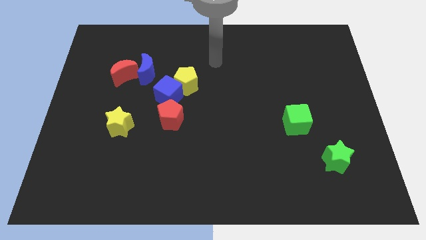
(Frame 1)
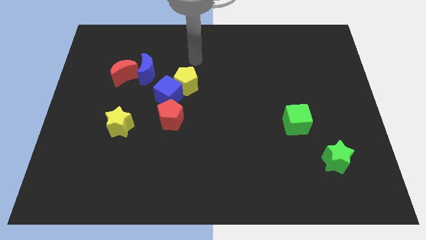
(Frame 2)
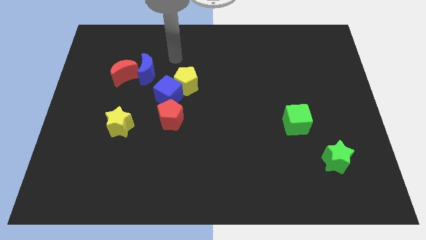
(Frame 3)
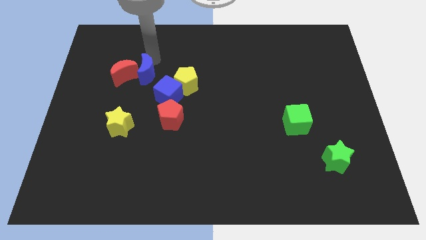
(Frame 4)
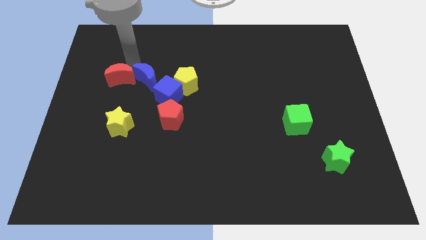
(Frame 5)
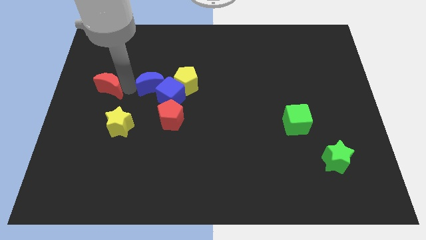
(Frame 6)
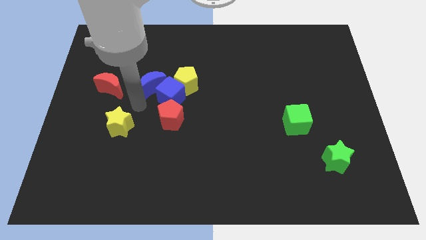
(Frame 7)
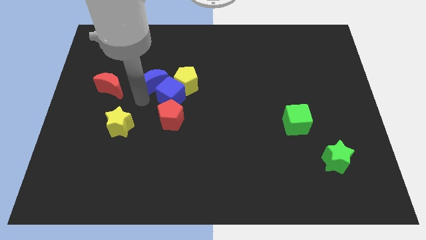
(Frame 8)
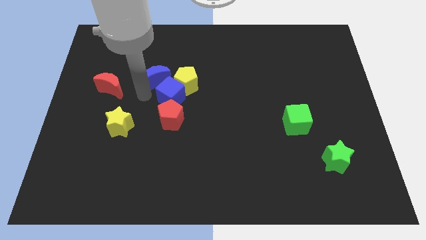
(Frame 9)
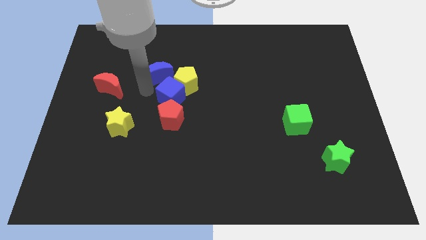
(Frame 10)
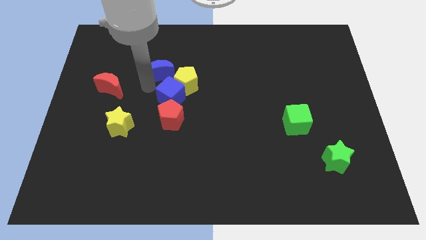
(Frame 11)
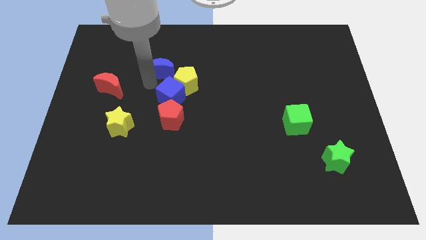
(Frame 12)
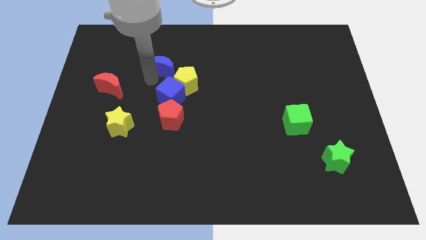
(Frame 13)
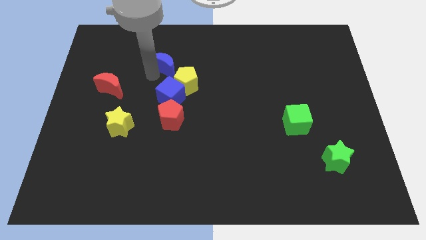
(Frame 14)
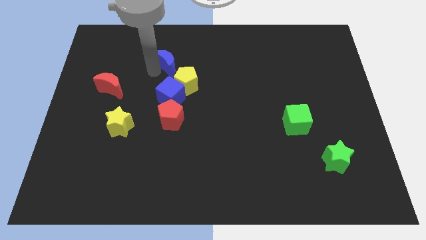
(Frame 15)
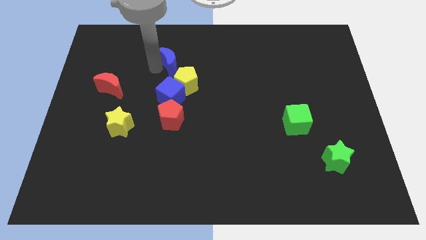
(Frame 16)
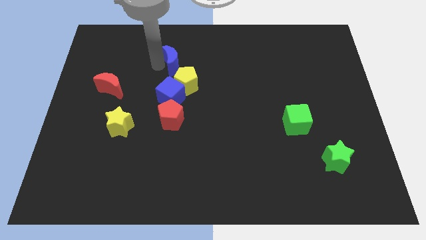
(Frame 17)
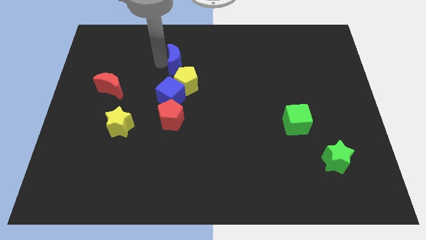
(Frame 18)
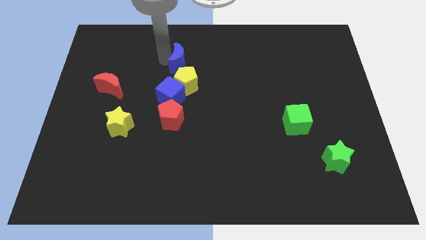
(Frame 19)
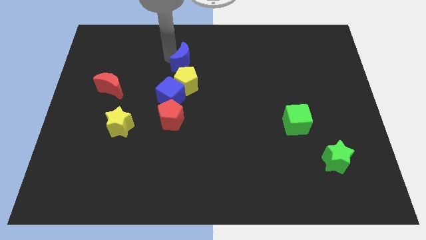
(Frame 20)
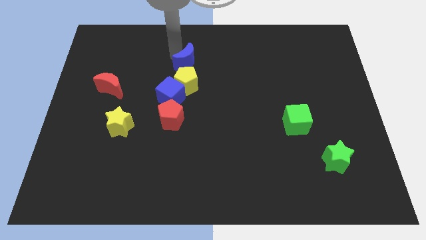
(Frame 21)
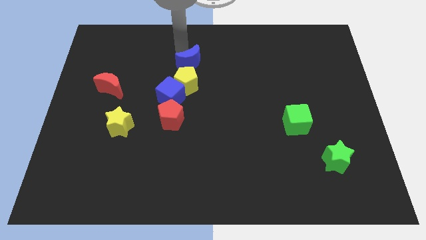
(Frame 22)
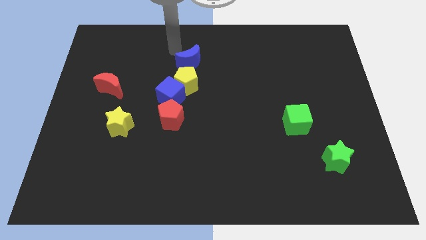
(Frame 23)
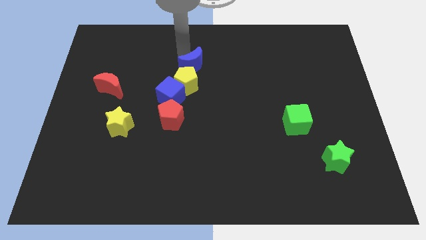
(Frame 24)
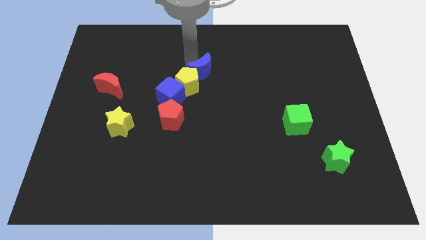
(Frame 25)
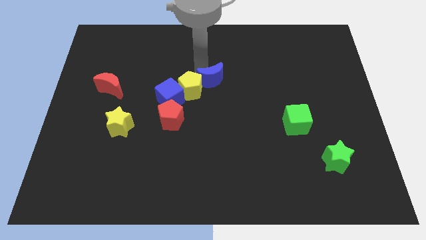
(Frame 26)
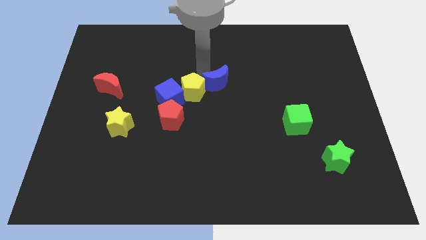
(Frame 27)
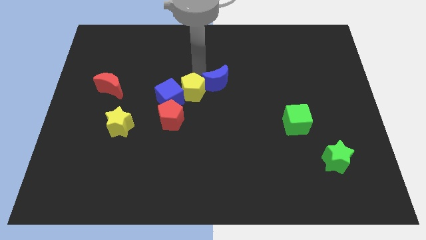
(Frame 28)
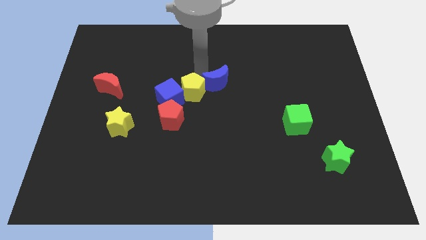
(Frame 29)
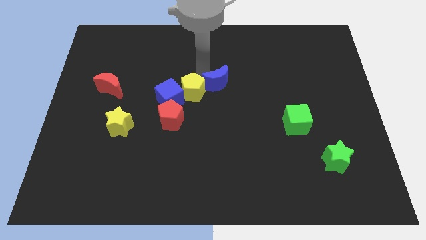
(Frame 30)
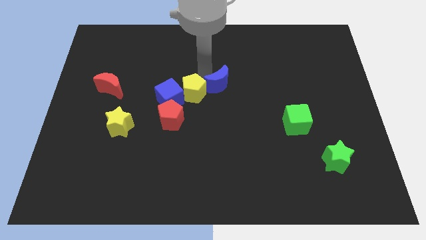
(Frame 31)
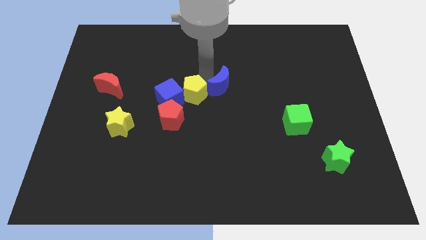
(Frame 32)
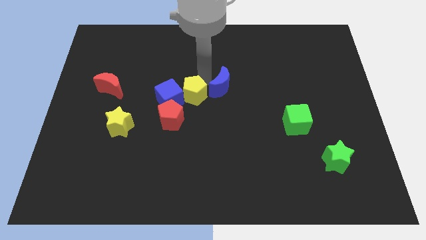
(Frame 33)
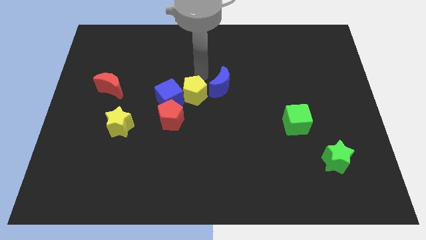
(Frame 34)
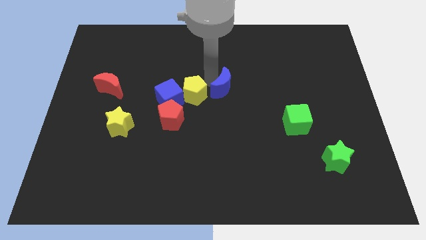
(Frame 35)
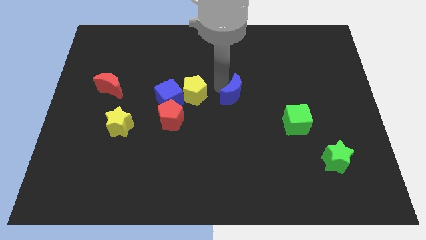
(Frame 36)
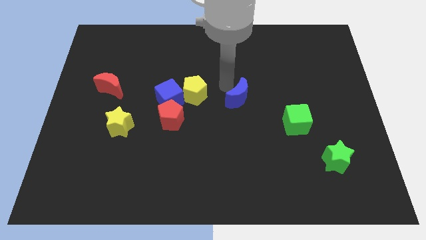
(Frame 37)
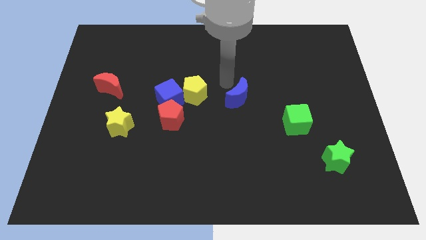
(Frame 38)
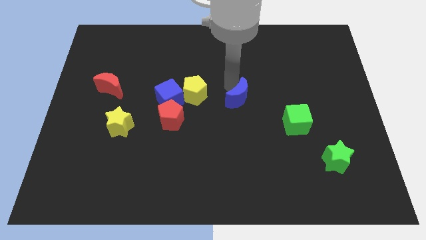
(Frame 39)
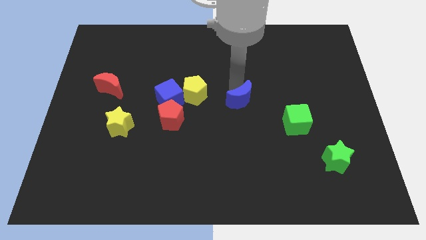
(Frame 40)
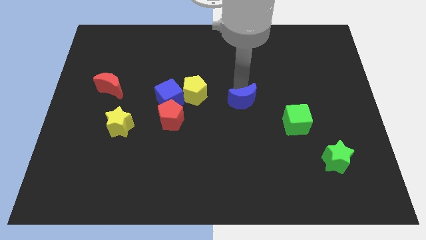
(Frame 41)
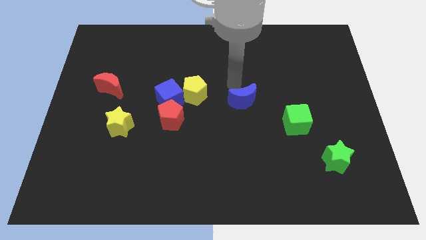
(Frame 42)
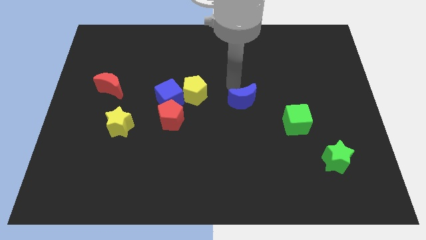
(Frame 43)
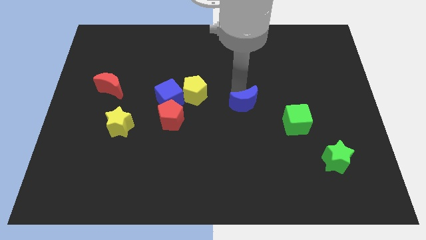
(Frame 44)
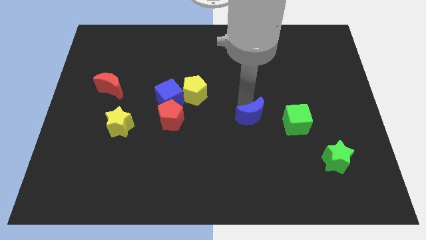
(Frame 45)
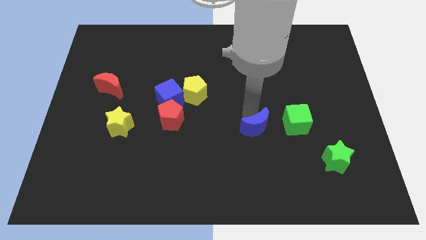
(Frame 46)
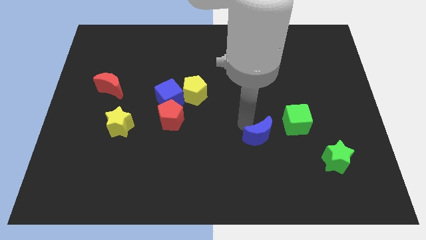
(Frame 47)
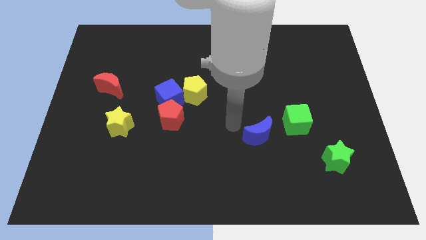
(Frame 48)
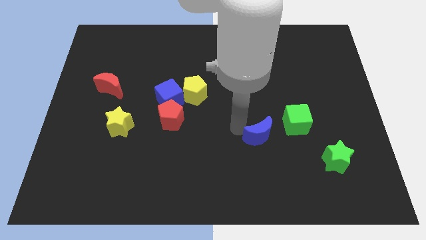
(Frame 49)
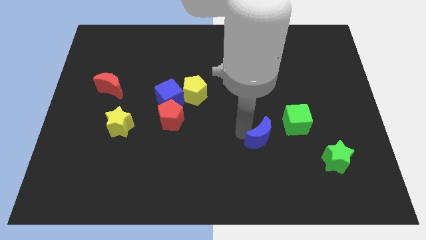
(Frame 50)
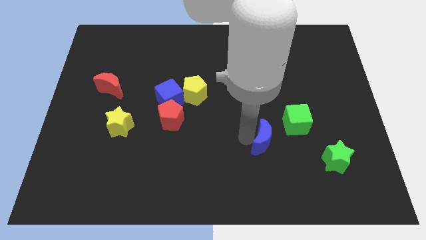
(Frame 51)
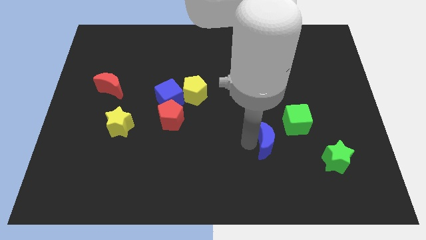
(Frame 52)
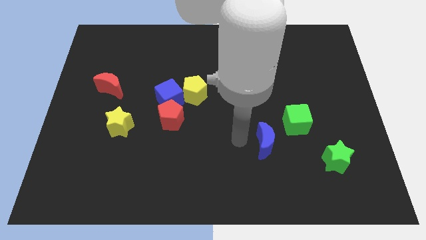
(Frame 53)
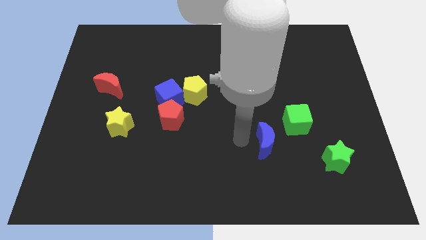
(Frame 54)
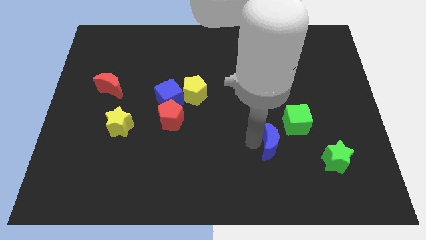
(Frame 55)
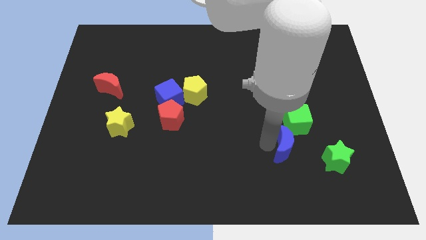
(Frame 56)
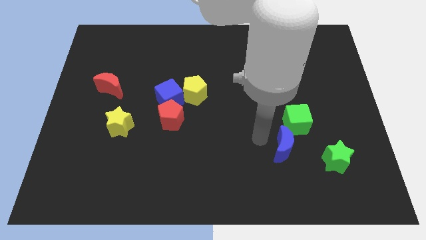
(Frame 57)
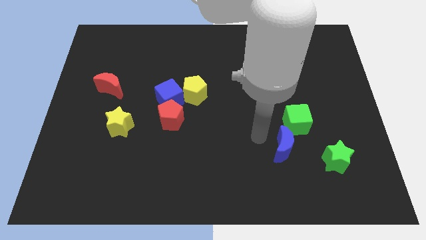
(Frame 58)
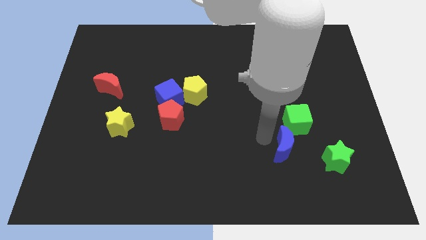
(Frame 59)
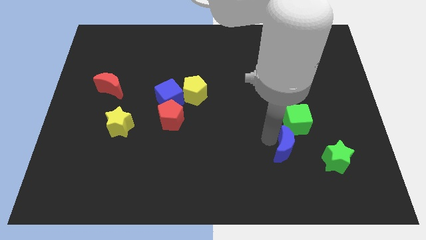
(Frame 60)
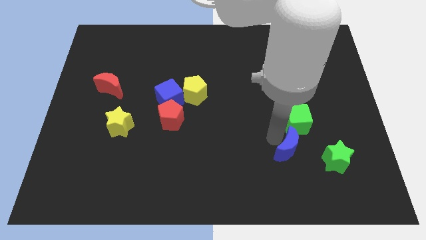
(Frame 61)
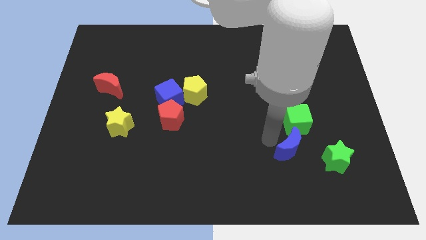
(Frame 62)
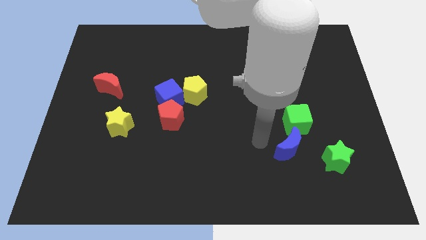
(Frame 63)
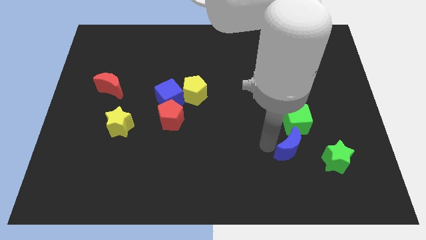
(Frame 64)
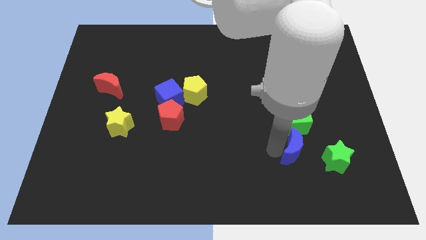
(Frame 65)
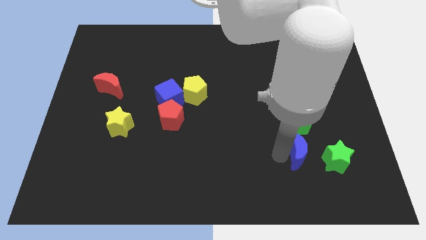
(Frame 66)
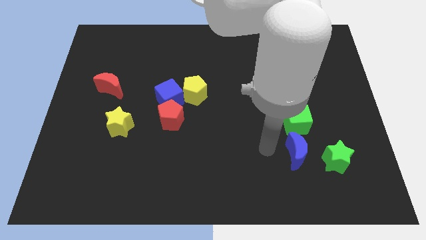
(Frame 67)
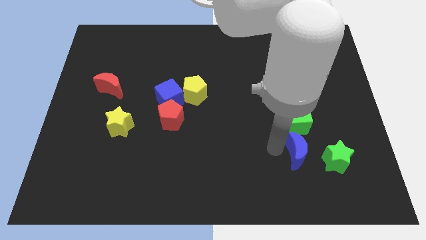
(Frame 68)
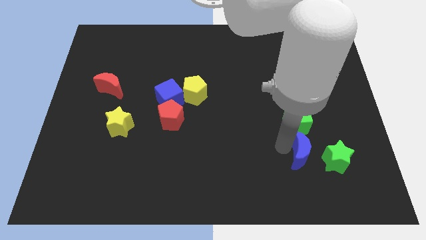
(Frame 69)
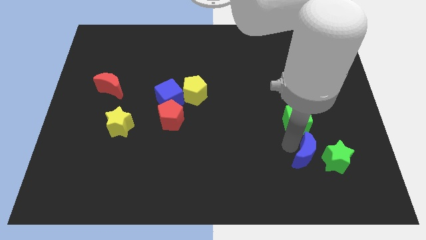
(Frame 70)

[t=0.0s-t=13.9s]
move the blue moon next to the green star
